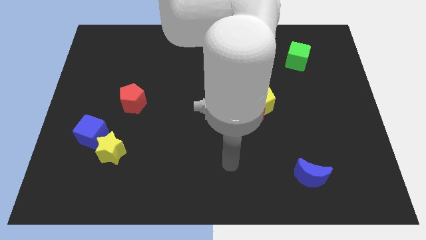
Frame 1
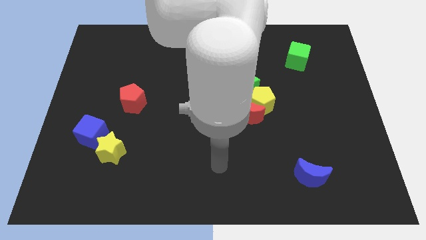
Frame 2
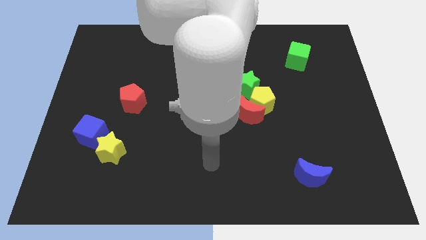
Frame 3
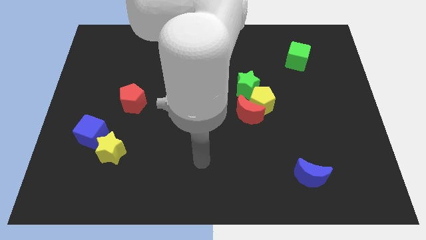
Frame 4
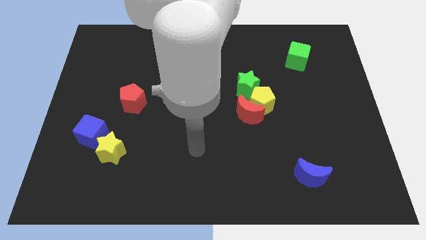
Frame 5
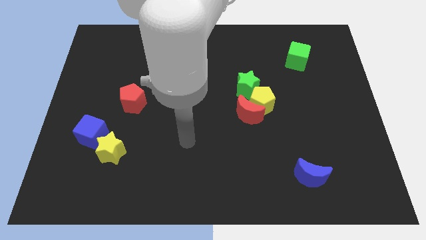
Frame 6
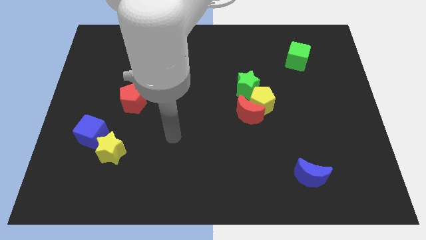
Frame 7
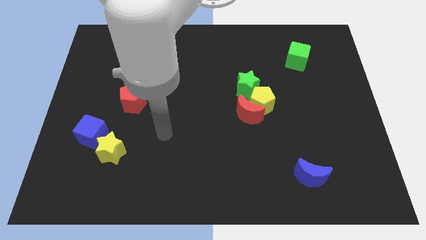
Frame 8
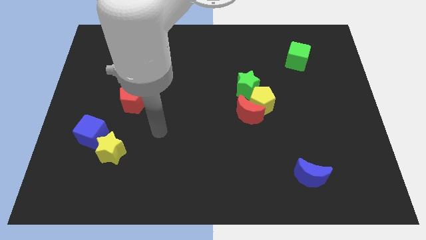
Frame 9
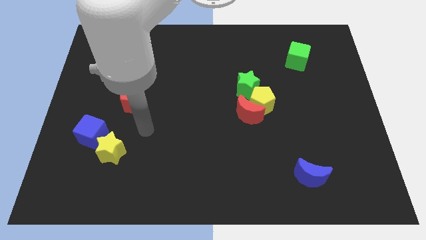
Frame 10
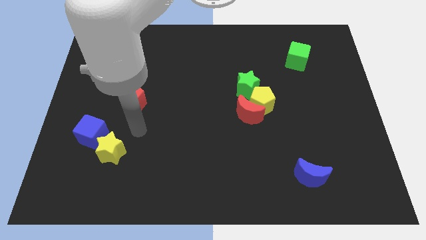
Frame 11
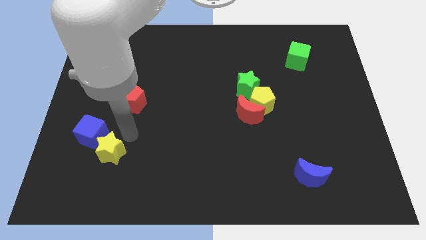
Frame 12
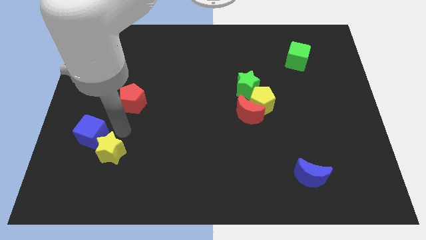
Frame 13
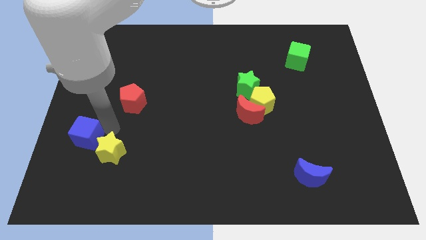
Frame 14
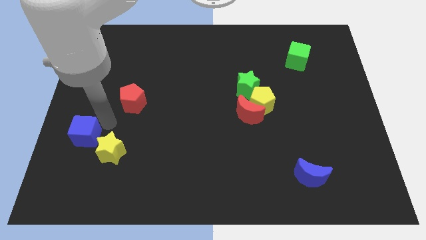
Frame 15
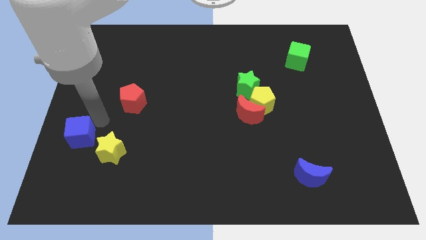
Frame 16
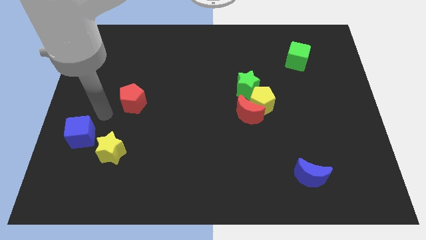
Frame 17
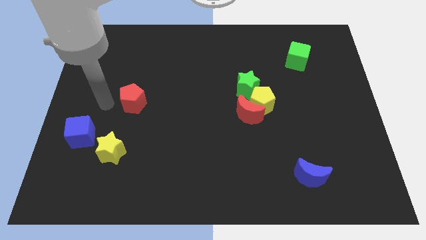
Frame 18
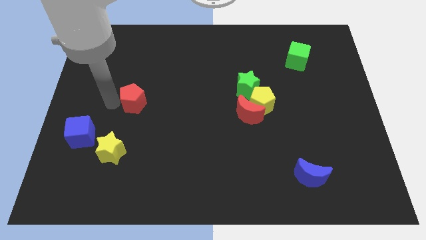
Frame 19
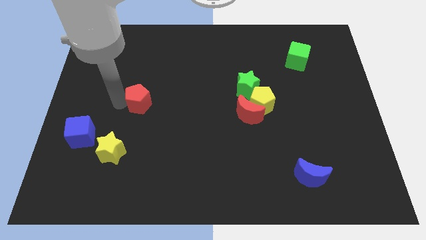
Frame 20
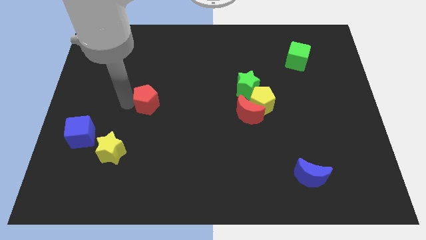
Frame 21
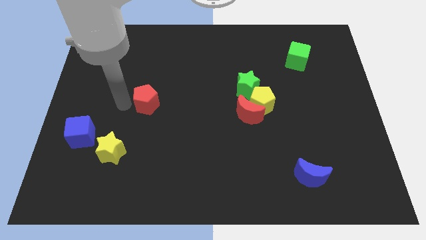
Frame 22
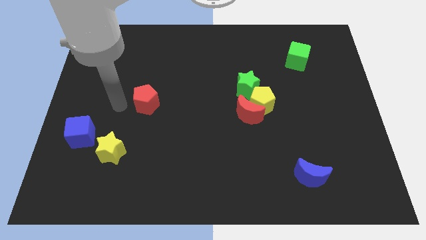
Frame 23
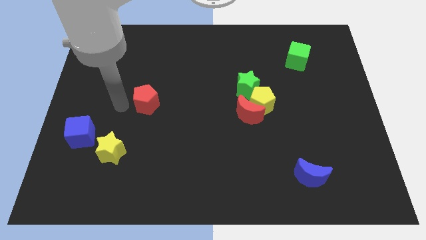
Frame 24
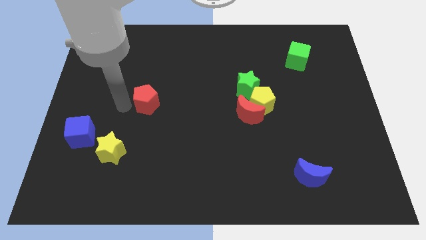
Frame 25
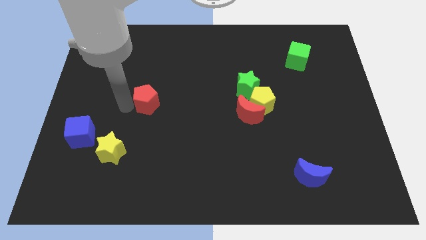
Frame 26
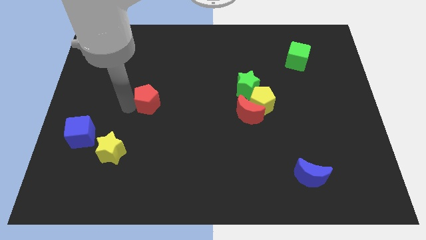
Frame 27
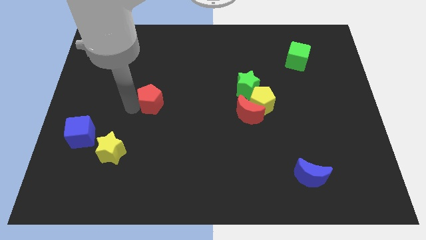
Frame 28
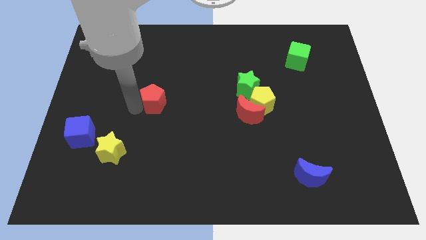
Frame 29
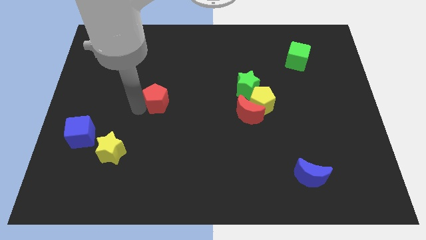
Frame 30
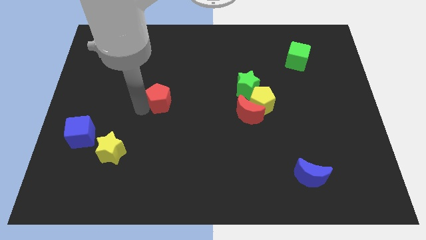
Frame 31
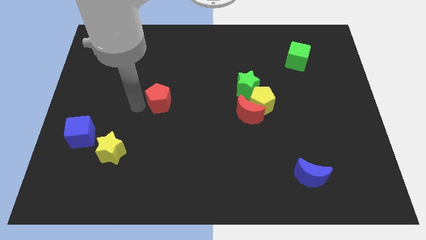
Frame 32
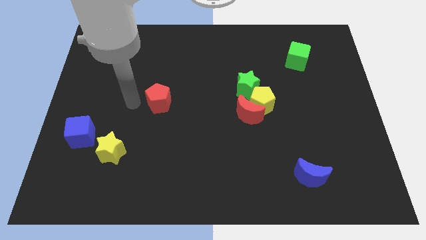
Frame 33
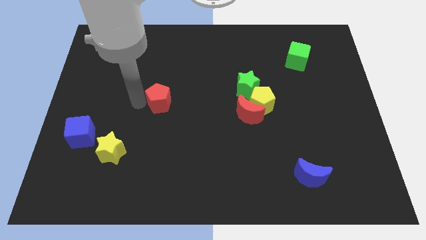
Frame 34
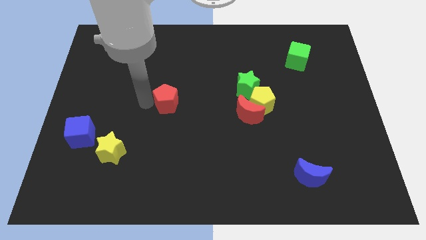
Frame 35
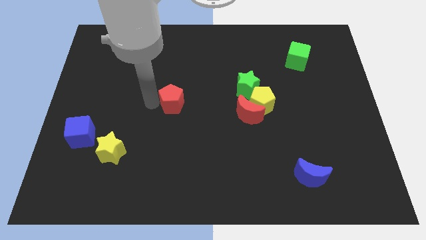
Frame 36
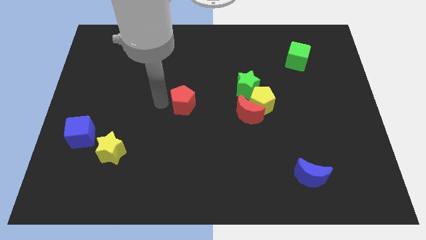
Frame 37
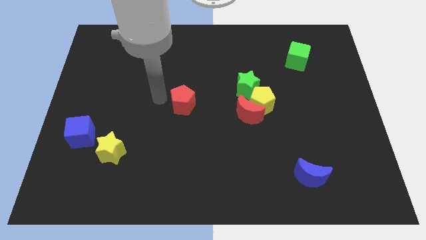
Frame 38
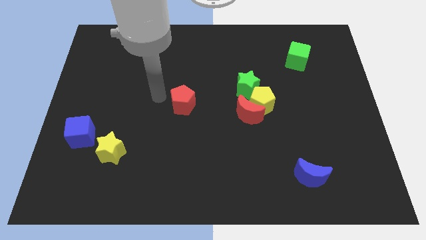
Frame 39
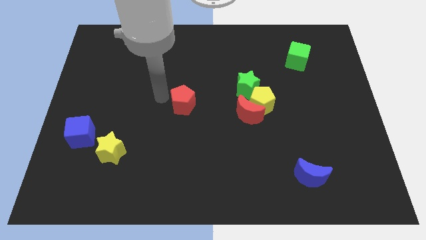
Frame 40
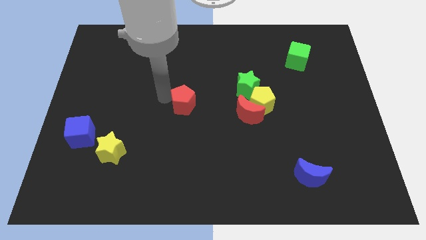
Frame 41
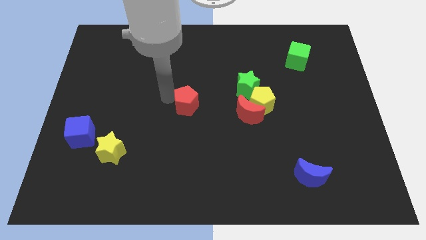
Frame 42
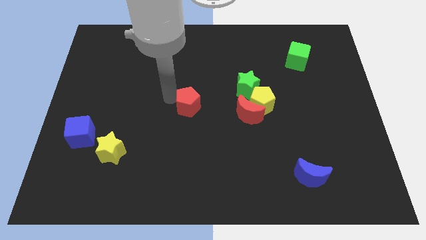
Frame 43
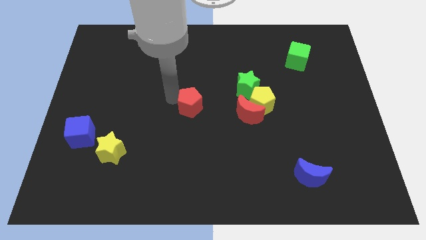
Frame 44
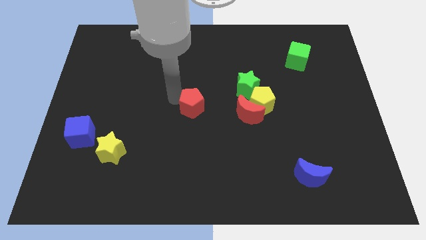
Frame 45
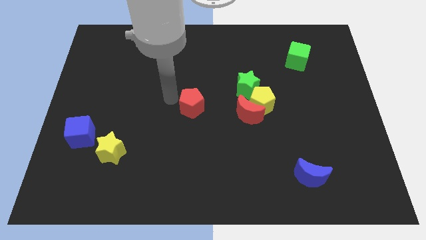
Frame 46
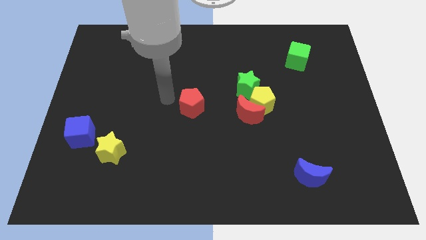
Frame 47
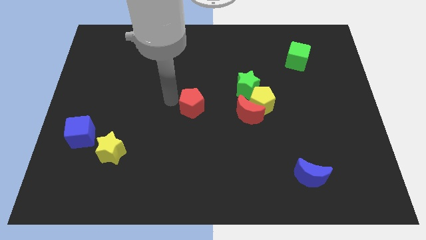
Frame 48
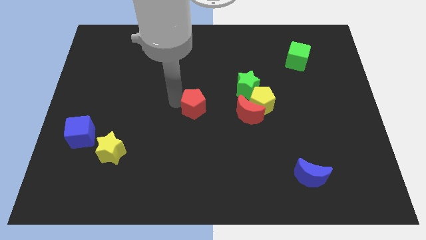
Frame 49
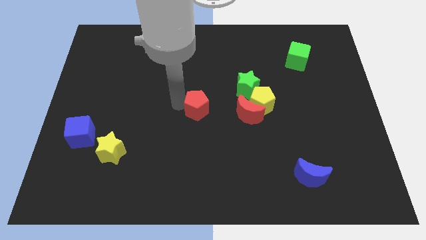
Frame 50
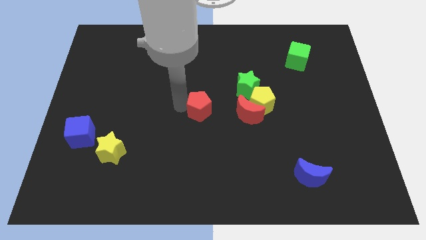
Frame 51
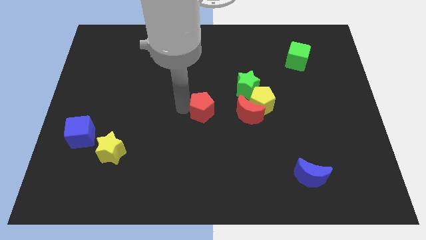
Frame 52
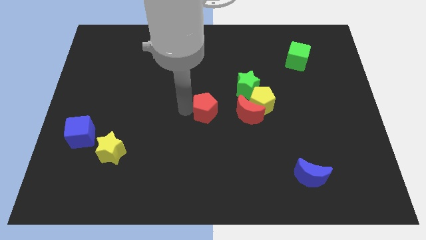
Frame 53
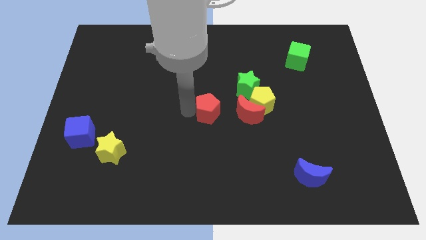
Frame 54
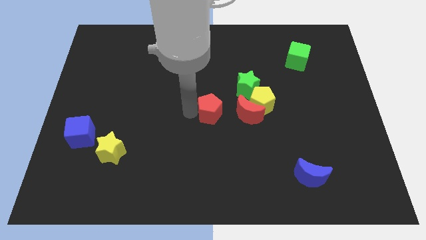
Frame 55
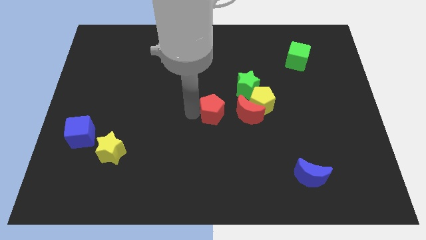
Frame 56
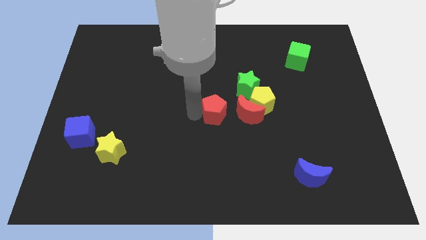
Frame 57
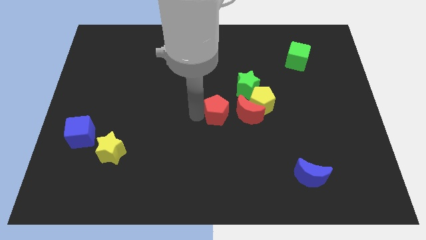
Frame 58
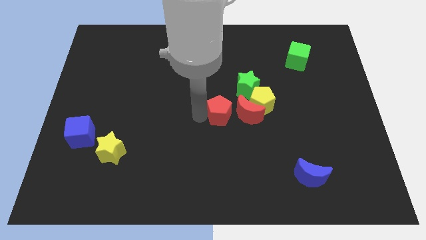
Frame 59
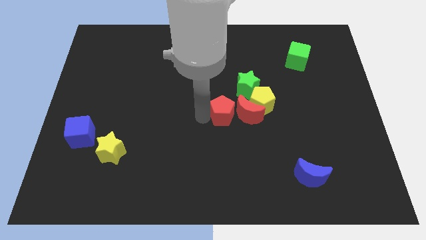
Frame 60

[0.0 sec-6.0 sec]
put the red pentagon to the red moon
